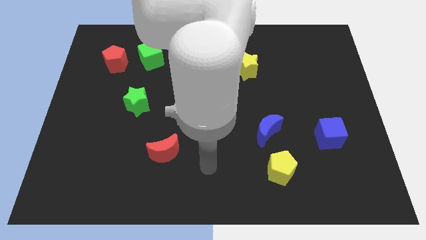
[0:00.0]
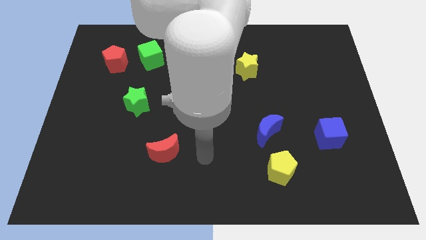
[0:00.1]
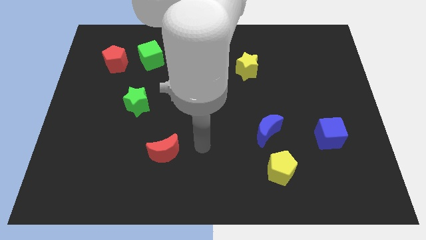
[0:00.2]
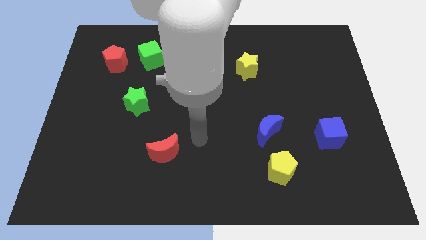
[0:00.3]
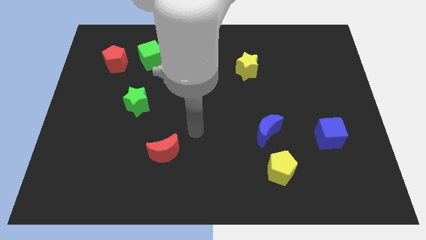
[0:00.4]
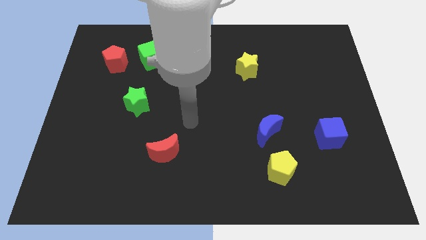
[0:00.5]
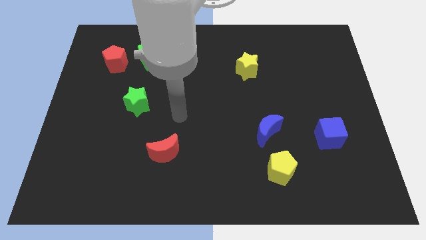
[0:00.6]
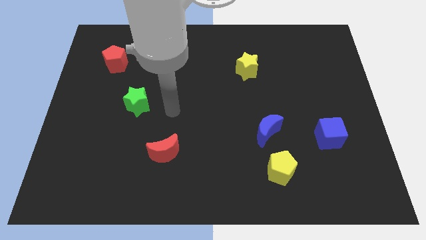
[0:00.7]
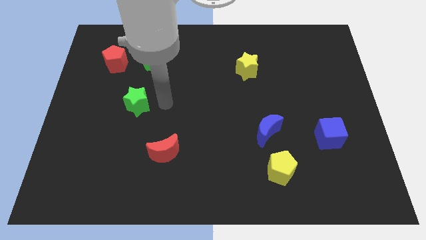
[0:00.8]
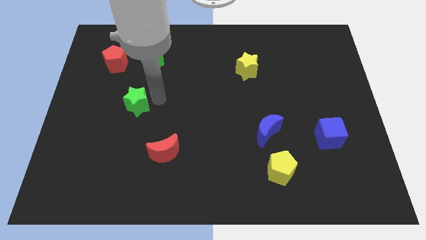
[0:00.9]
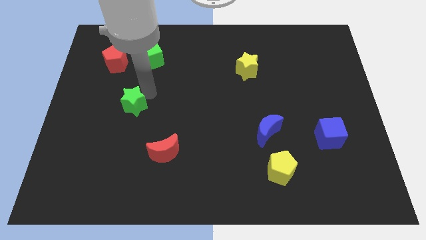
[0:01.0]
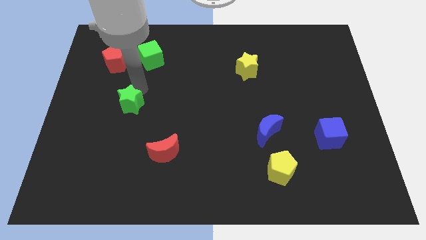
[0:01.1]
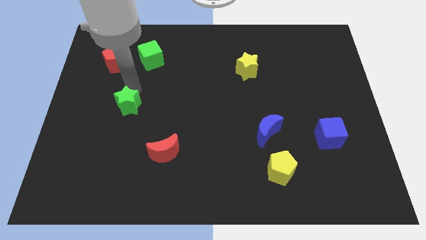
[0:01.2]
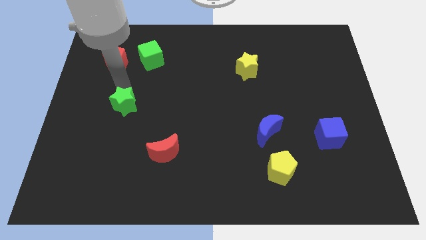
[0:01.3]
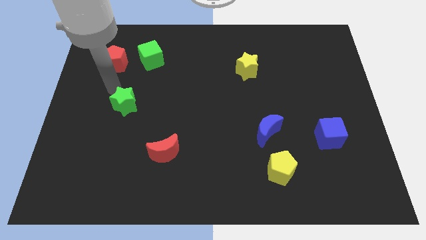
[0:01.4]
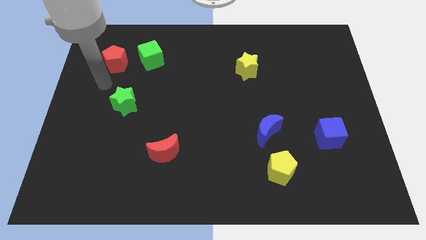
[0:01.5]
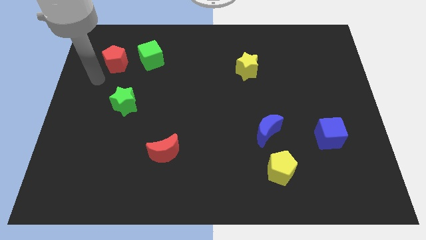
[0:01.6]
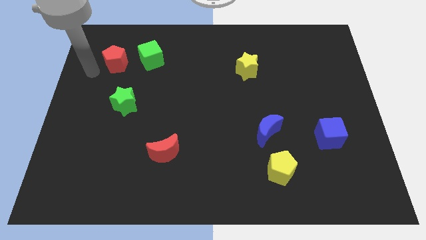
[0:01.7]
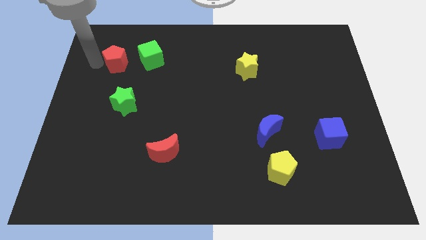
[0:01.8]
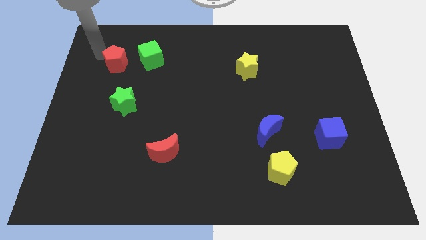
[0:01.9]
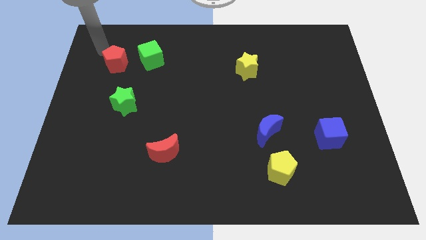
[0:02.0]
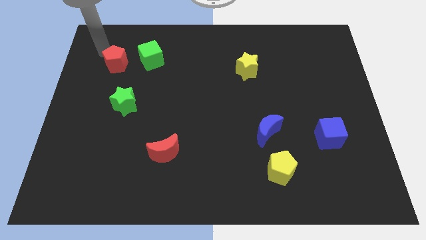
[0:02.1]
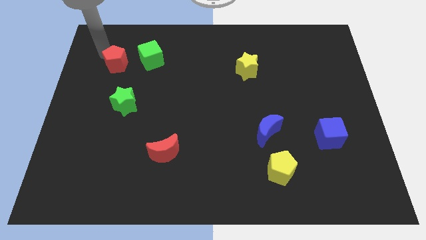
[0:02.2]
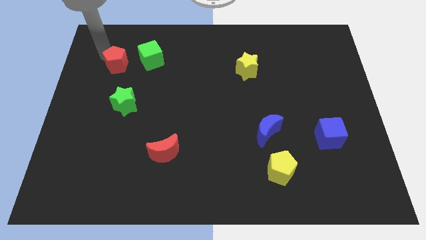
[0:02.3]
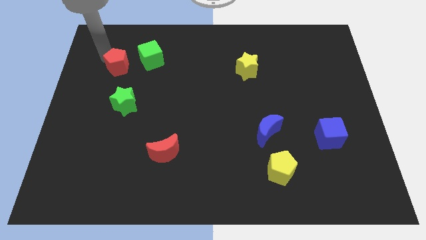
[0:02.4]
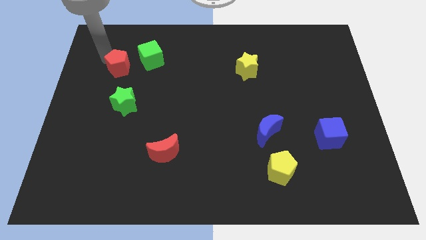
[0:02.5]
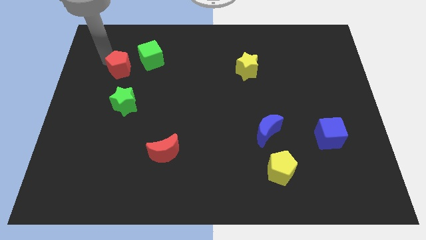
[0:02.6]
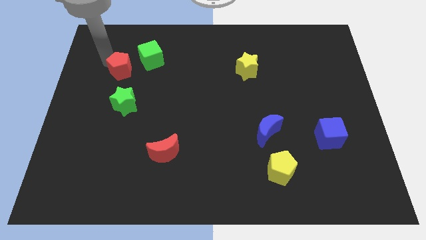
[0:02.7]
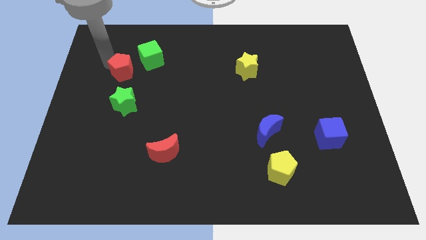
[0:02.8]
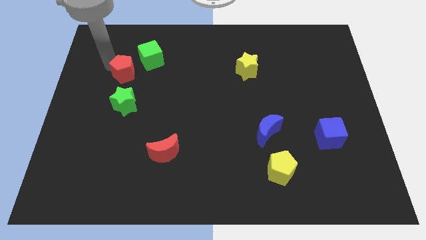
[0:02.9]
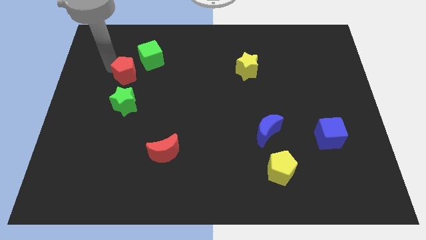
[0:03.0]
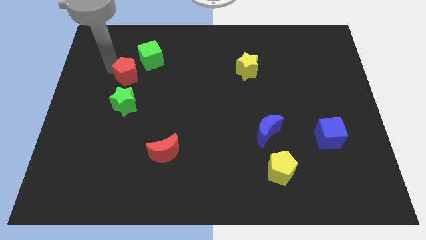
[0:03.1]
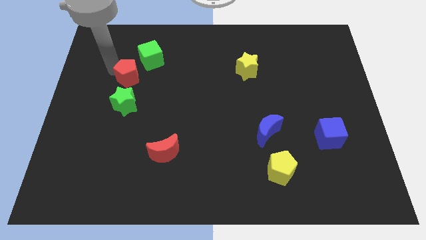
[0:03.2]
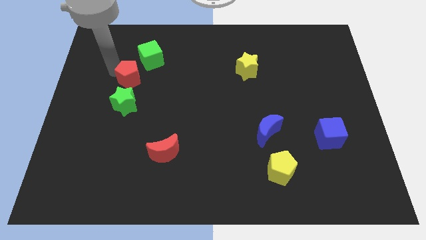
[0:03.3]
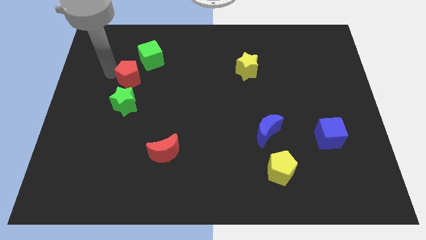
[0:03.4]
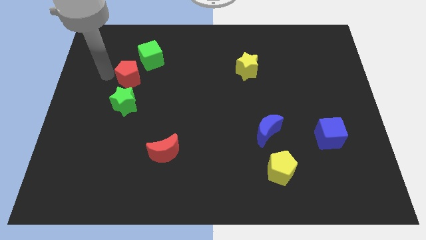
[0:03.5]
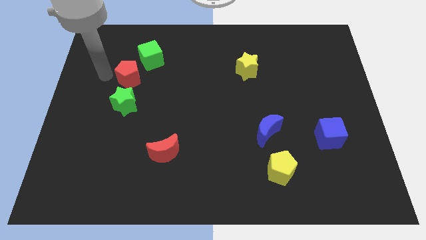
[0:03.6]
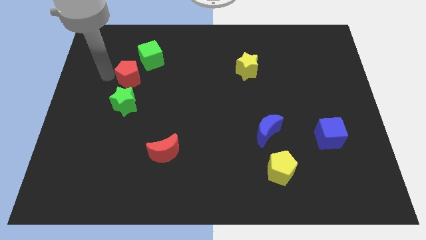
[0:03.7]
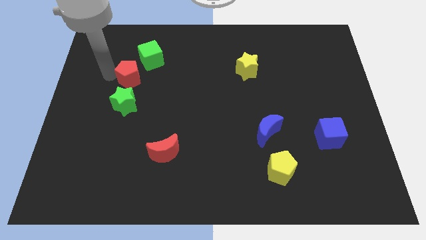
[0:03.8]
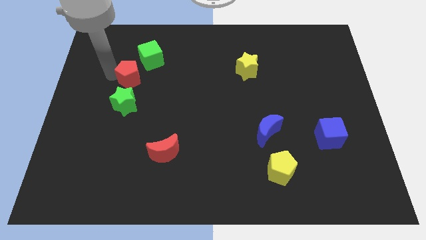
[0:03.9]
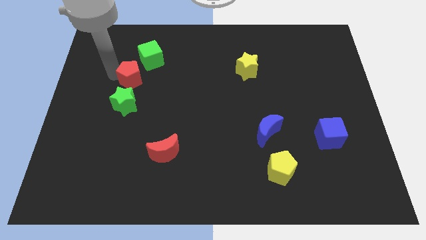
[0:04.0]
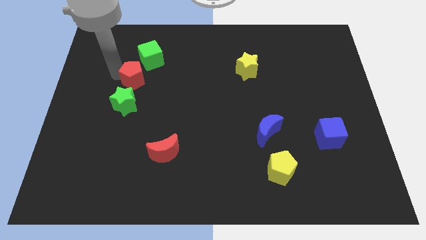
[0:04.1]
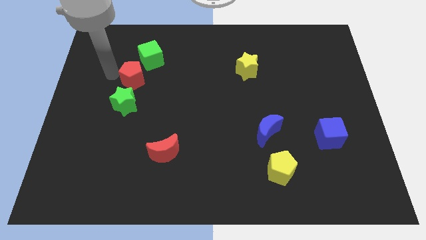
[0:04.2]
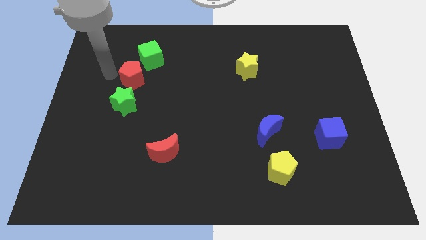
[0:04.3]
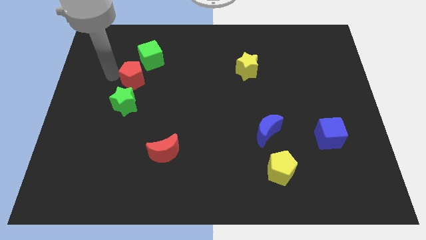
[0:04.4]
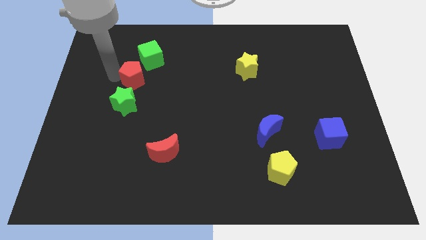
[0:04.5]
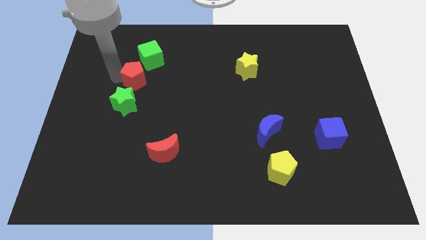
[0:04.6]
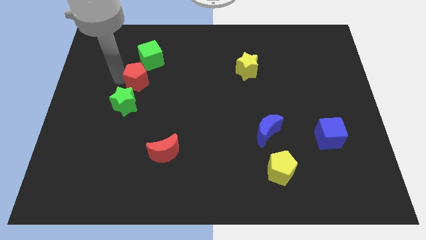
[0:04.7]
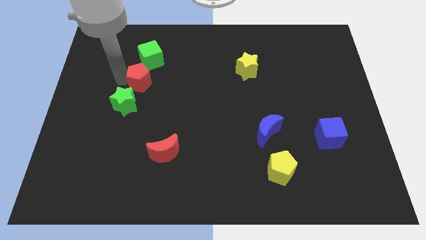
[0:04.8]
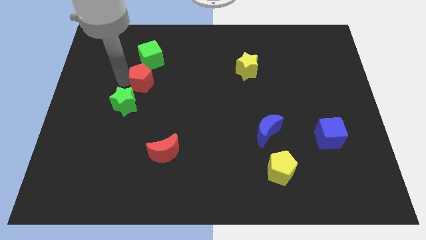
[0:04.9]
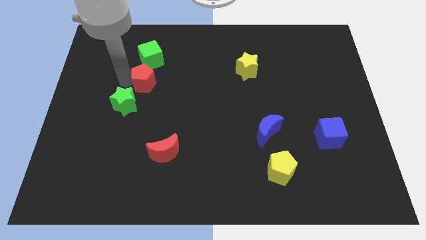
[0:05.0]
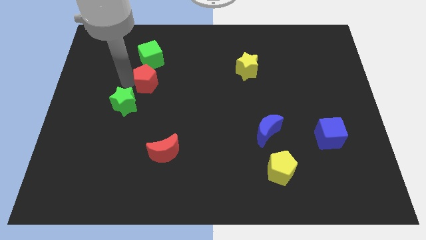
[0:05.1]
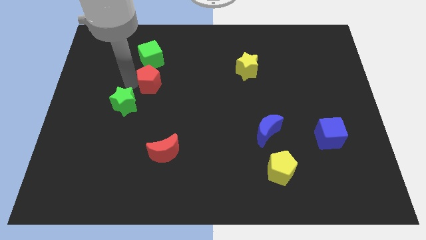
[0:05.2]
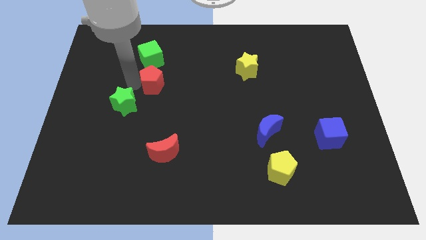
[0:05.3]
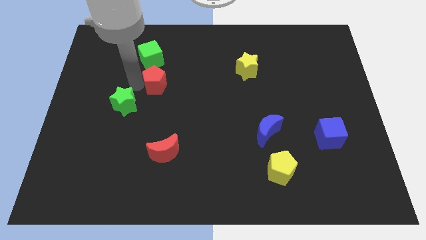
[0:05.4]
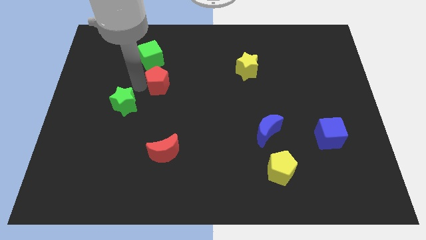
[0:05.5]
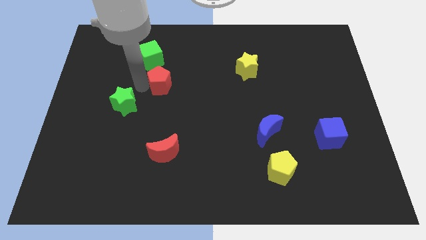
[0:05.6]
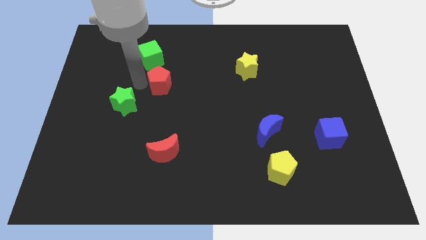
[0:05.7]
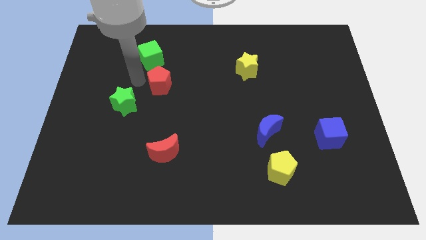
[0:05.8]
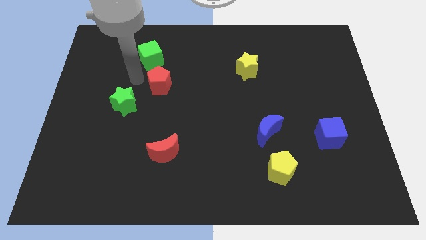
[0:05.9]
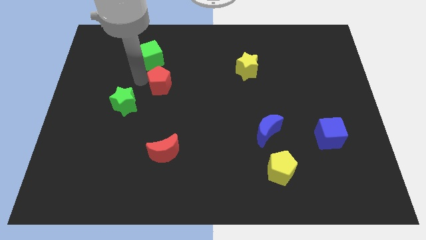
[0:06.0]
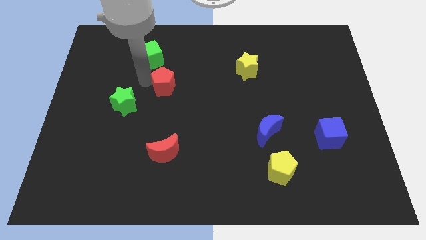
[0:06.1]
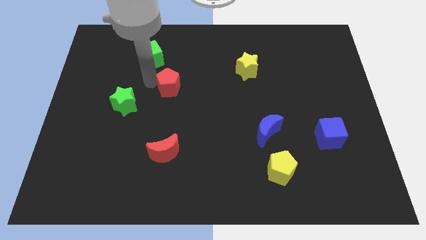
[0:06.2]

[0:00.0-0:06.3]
push the red pentagon to the center of the board
